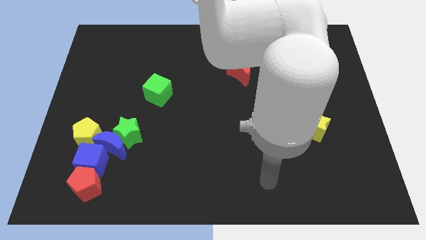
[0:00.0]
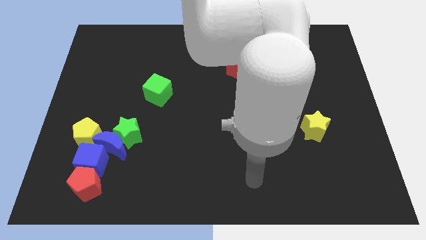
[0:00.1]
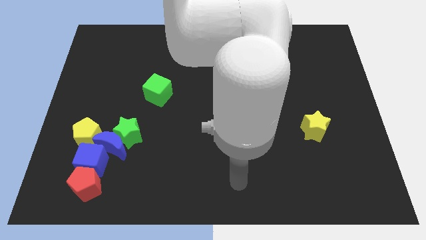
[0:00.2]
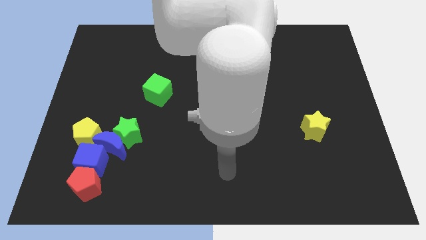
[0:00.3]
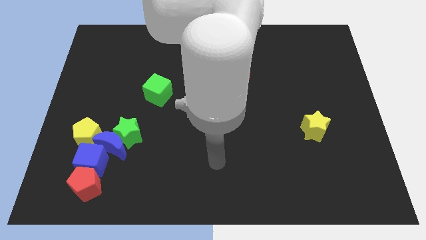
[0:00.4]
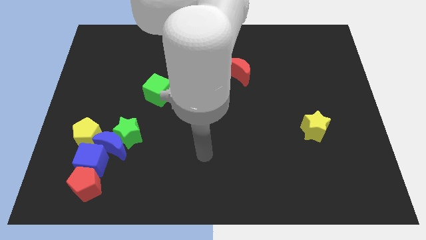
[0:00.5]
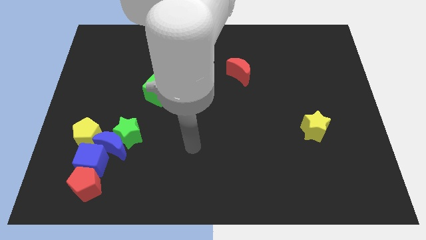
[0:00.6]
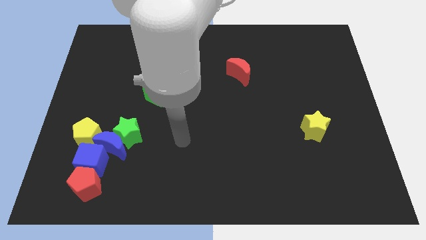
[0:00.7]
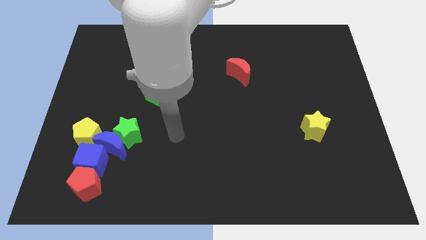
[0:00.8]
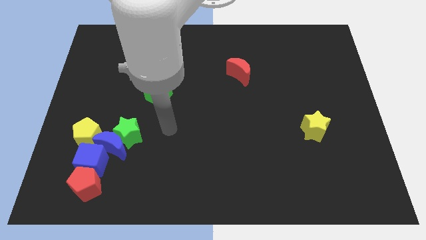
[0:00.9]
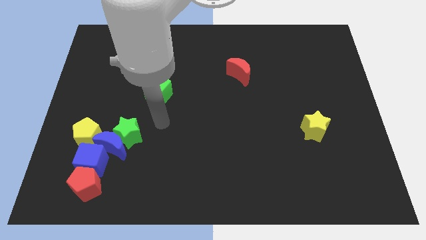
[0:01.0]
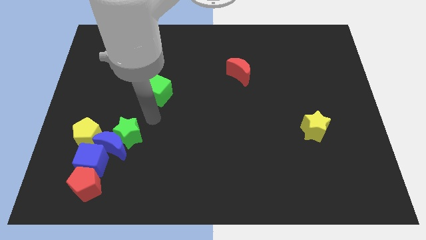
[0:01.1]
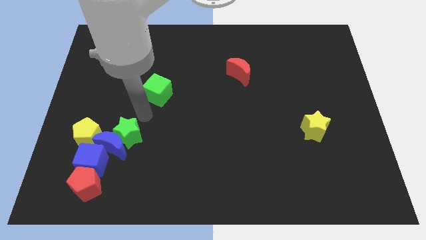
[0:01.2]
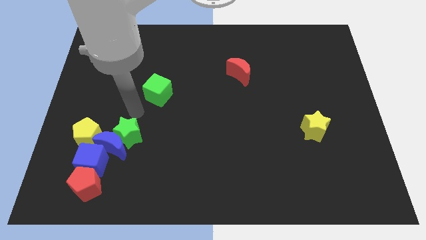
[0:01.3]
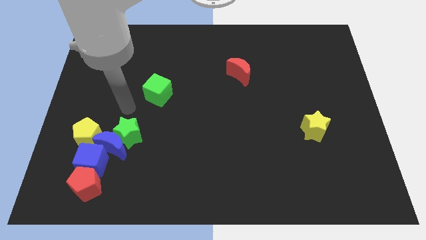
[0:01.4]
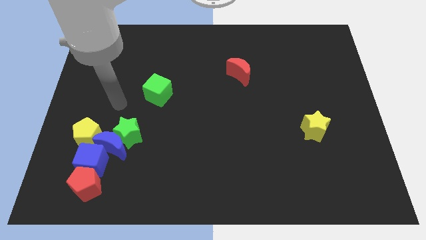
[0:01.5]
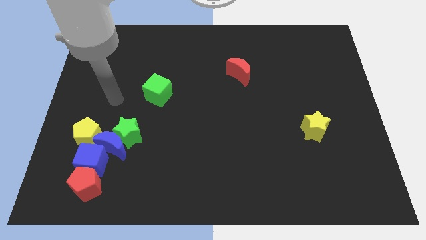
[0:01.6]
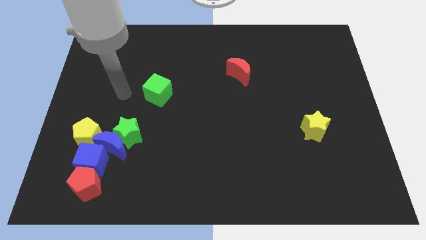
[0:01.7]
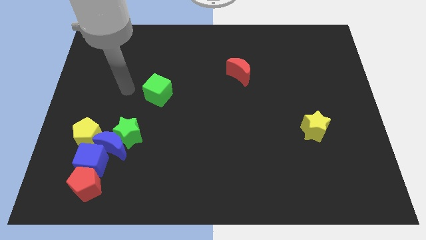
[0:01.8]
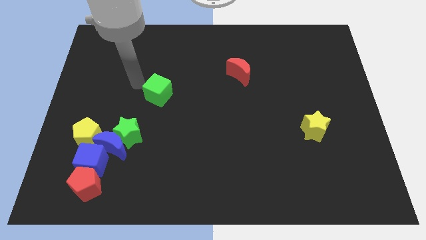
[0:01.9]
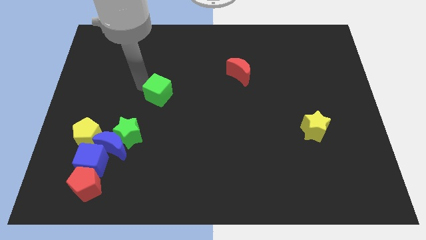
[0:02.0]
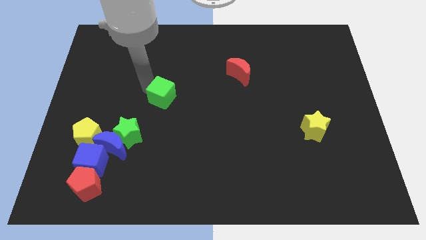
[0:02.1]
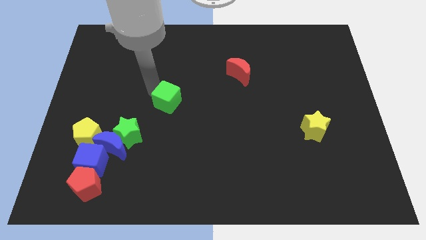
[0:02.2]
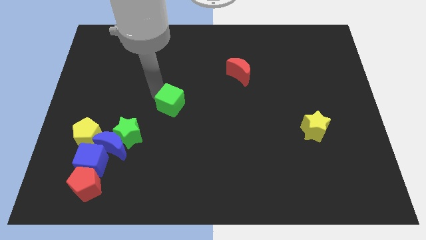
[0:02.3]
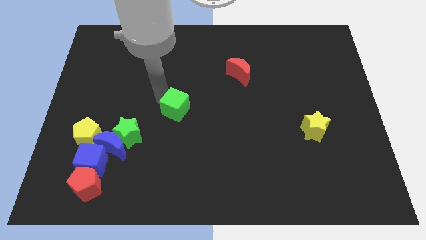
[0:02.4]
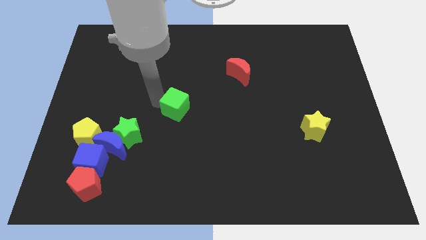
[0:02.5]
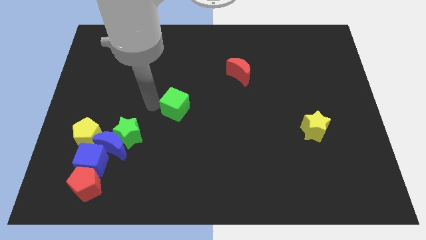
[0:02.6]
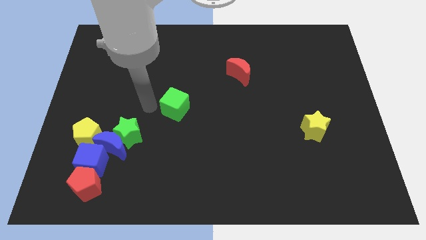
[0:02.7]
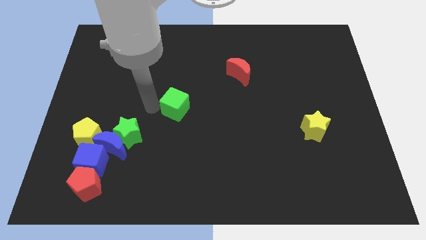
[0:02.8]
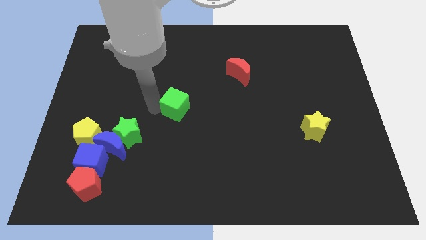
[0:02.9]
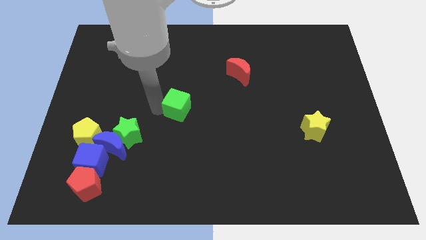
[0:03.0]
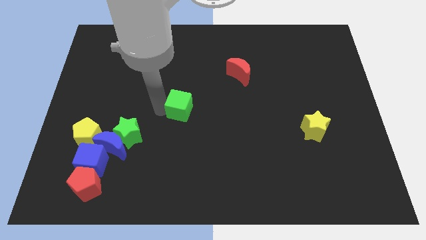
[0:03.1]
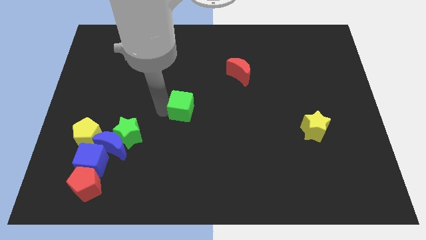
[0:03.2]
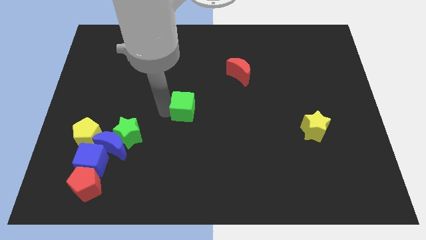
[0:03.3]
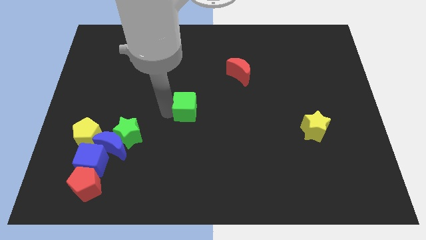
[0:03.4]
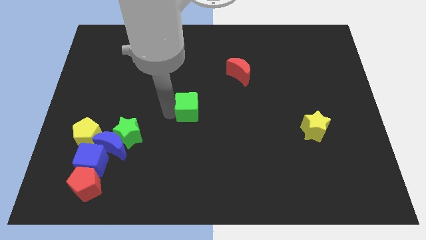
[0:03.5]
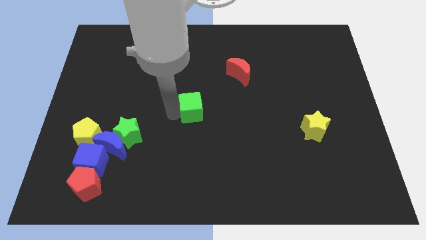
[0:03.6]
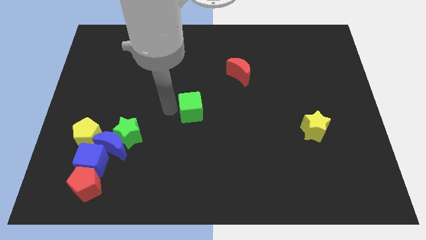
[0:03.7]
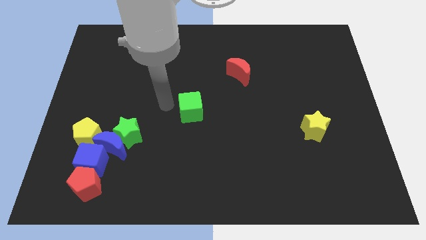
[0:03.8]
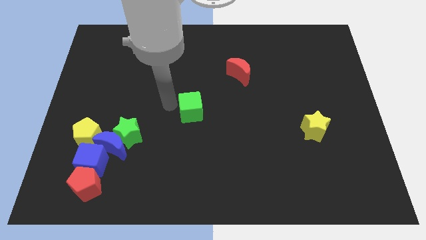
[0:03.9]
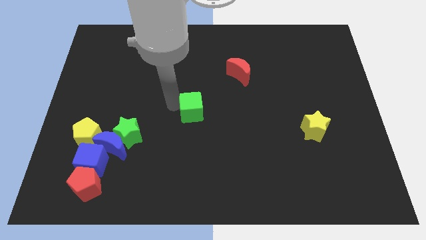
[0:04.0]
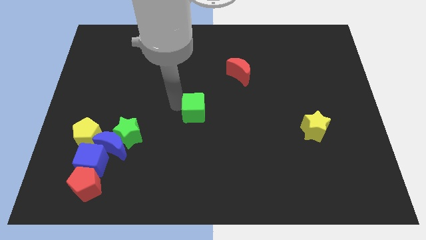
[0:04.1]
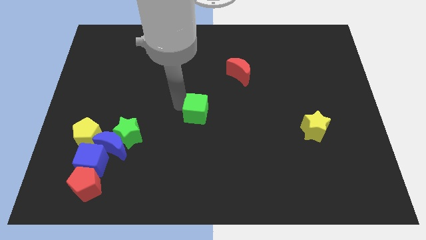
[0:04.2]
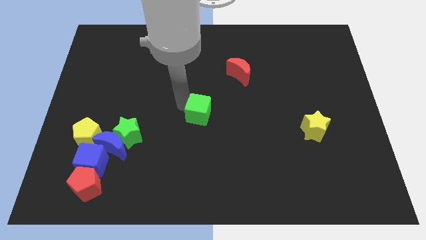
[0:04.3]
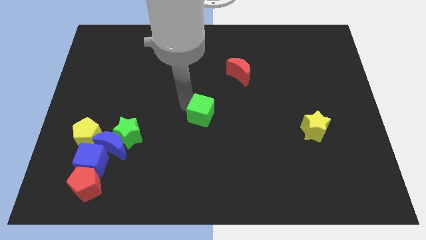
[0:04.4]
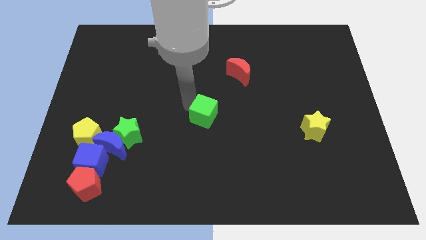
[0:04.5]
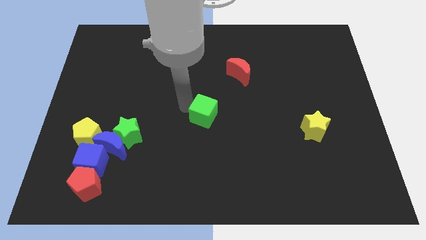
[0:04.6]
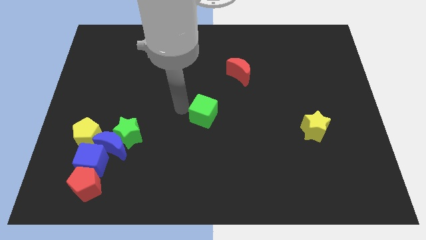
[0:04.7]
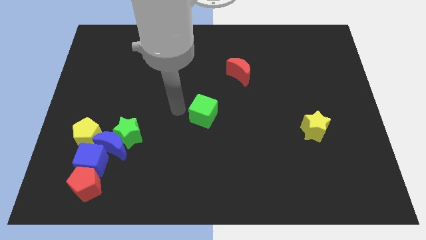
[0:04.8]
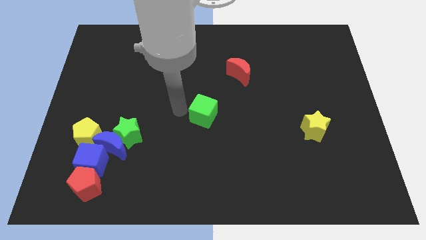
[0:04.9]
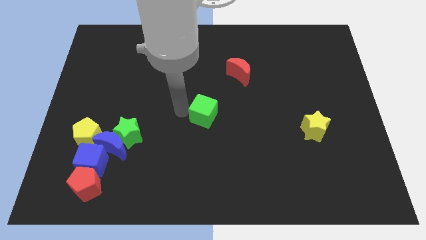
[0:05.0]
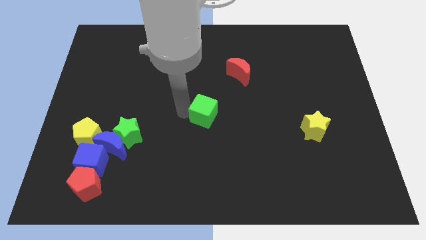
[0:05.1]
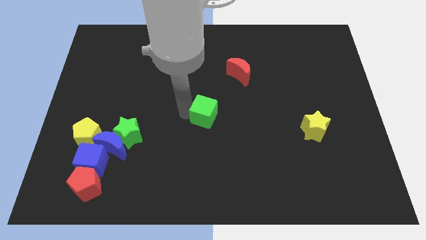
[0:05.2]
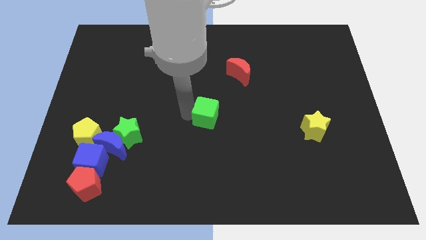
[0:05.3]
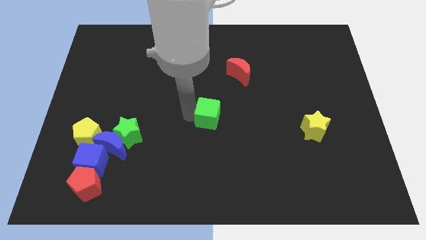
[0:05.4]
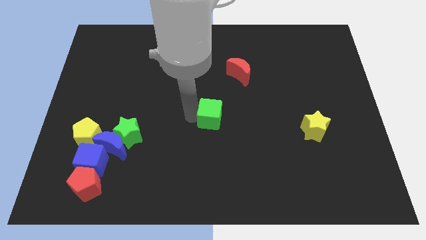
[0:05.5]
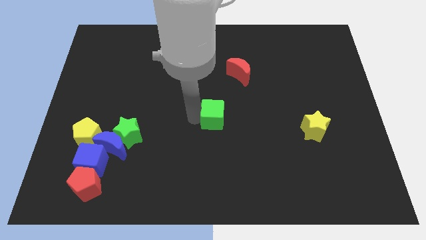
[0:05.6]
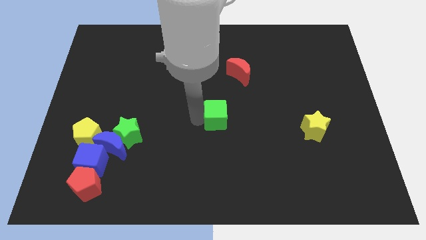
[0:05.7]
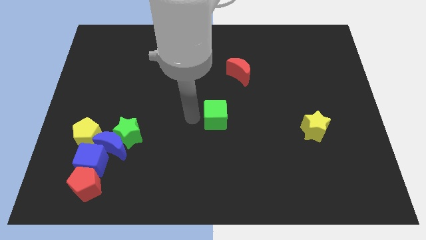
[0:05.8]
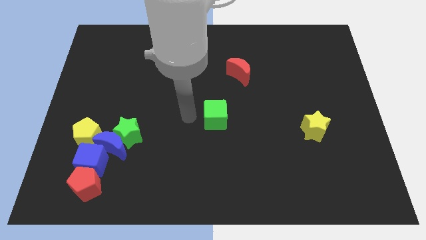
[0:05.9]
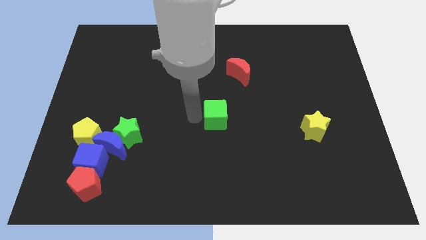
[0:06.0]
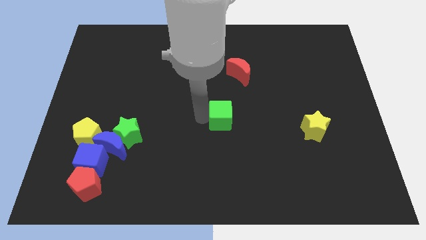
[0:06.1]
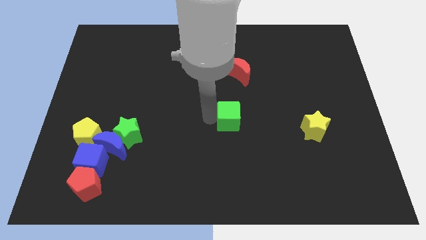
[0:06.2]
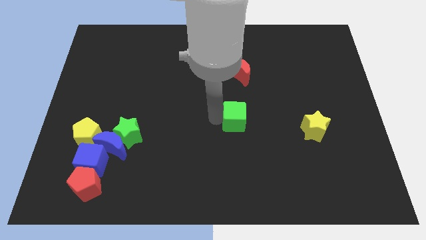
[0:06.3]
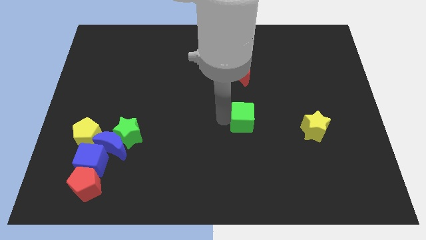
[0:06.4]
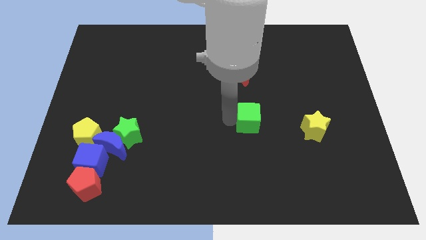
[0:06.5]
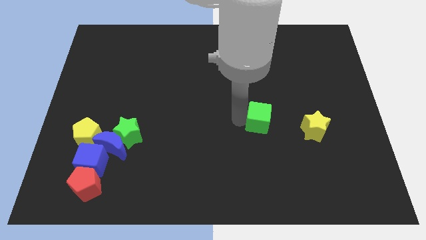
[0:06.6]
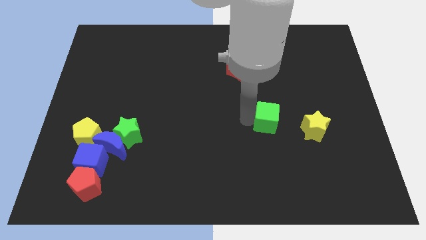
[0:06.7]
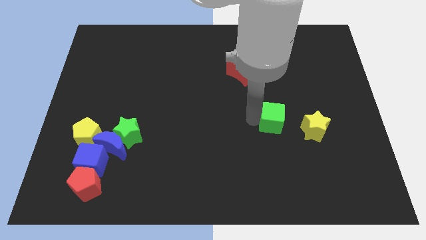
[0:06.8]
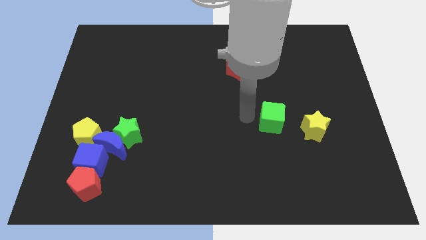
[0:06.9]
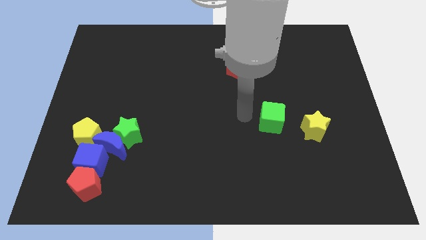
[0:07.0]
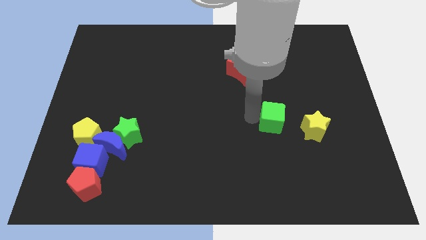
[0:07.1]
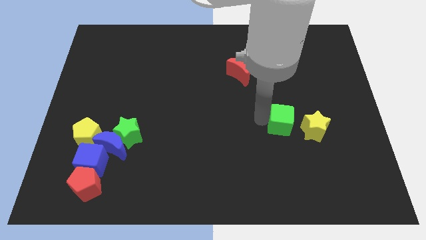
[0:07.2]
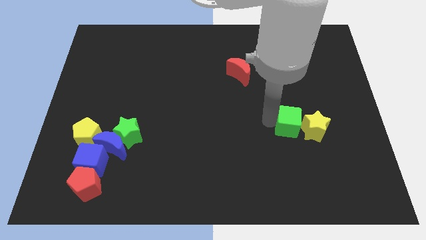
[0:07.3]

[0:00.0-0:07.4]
move the green cube towards the yellow star
